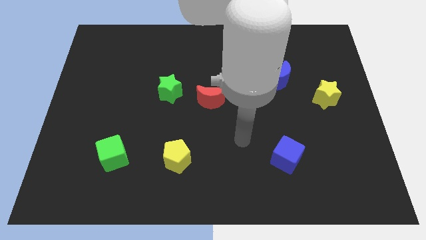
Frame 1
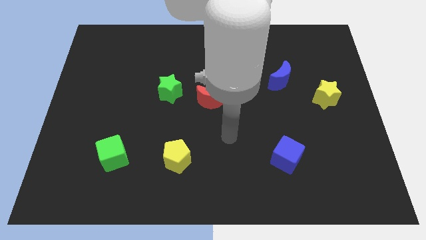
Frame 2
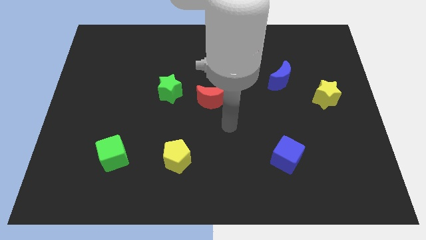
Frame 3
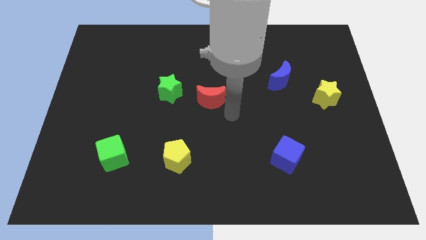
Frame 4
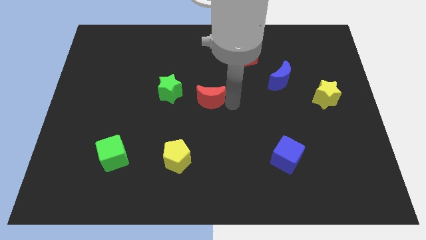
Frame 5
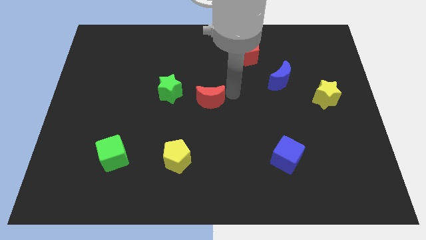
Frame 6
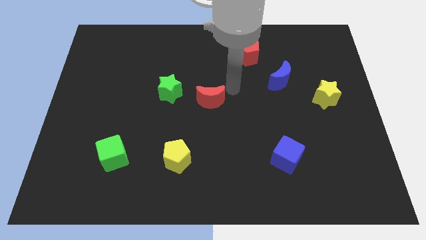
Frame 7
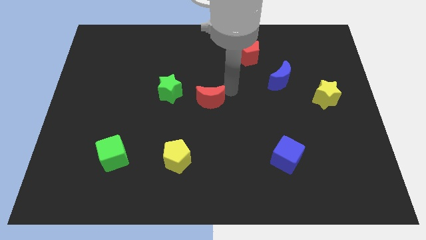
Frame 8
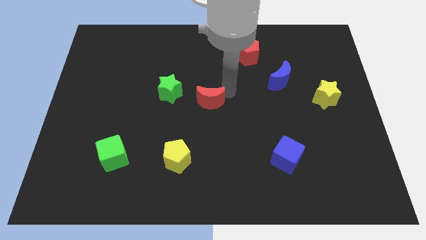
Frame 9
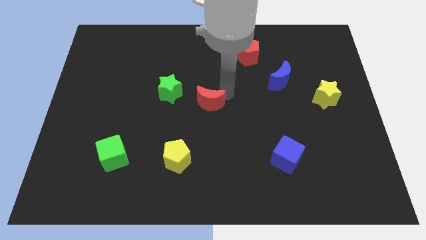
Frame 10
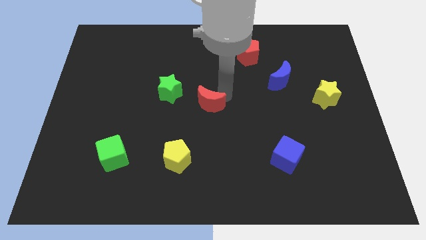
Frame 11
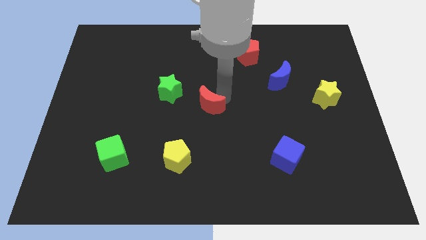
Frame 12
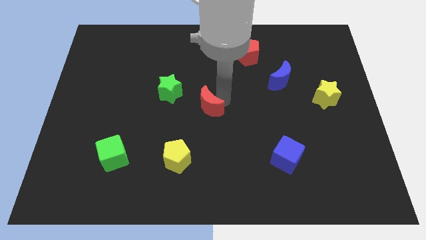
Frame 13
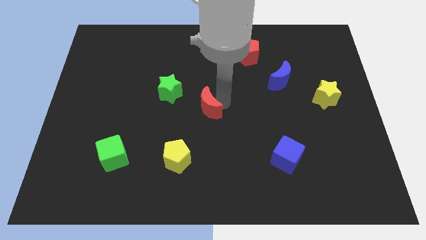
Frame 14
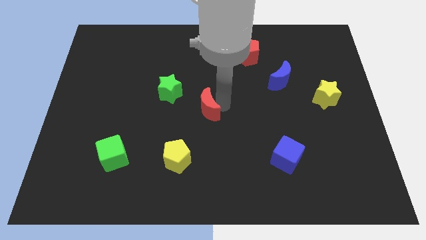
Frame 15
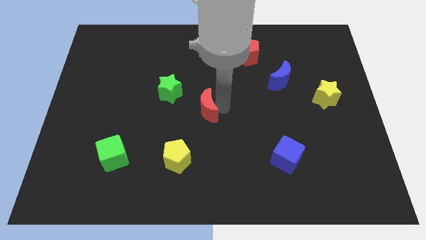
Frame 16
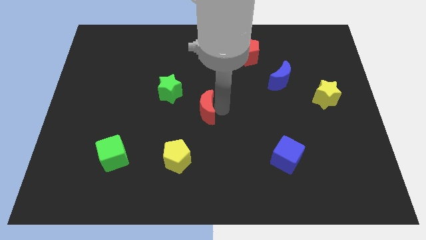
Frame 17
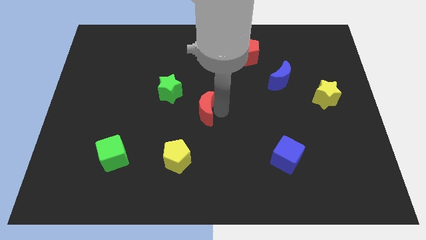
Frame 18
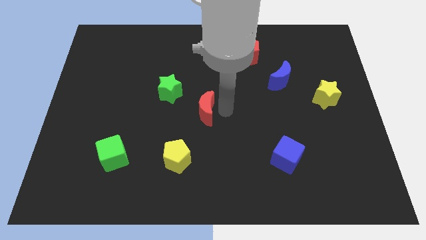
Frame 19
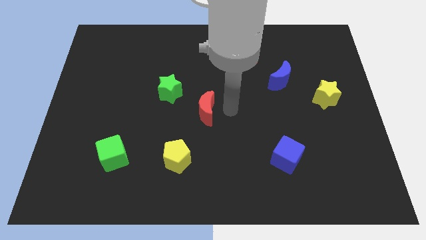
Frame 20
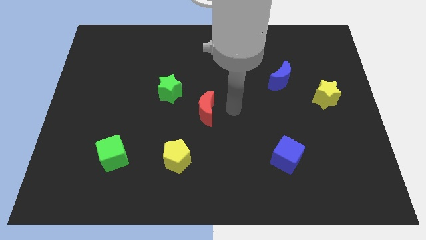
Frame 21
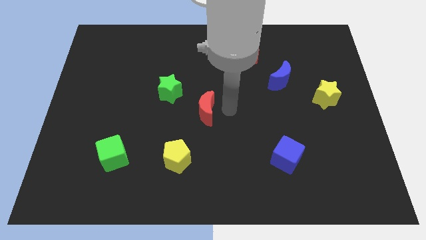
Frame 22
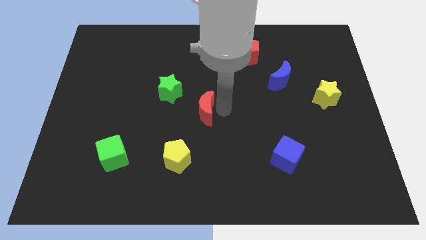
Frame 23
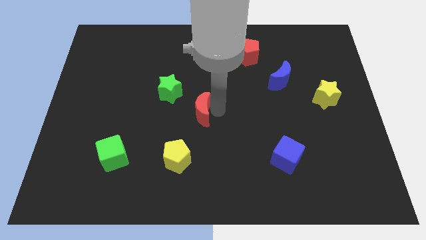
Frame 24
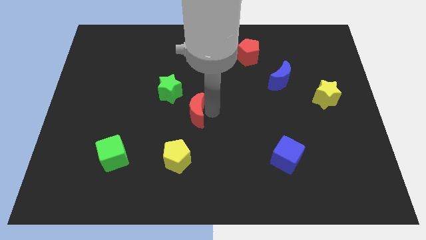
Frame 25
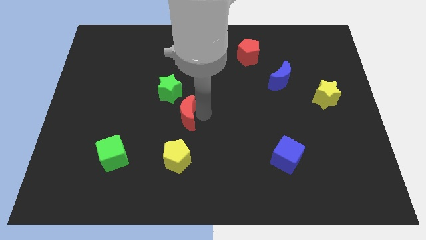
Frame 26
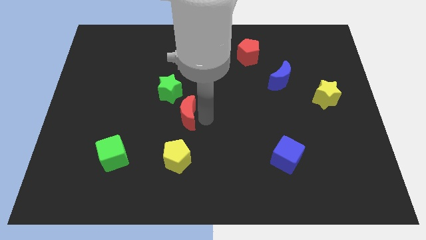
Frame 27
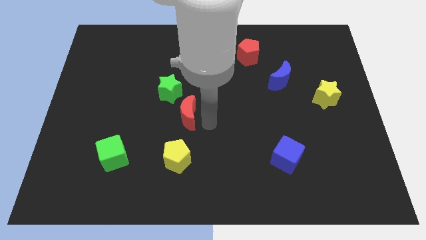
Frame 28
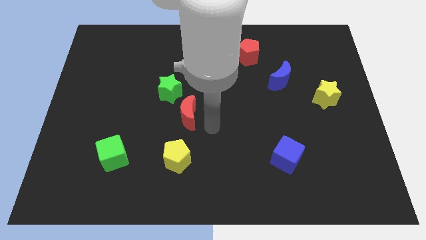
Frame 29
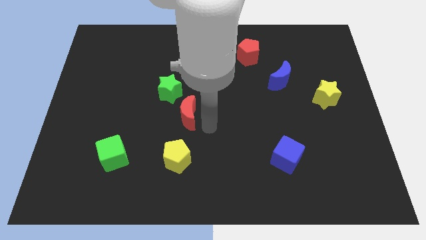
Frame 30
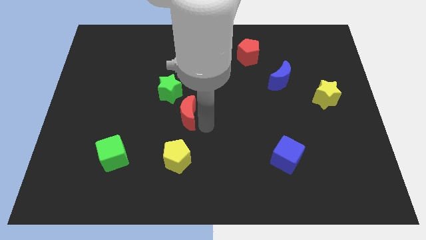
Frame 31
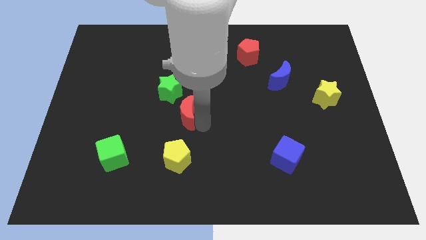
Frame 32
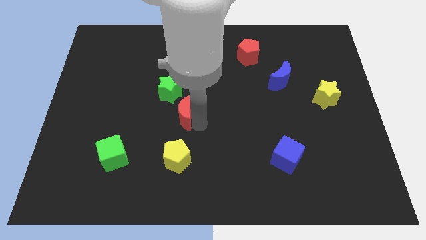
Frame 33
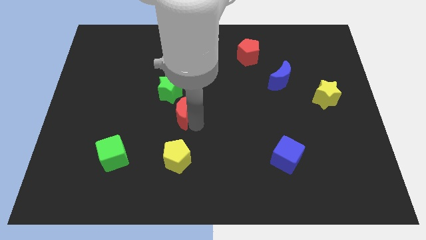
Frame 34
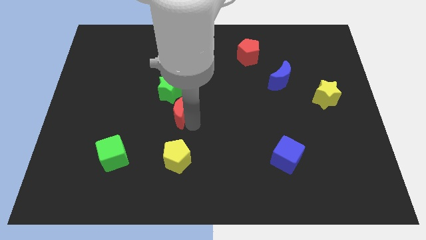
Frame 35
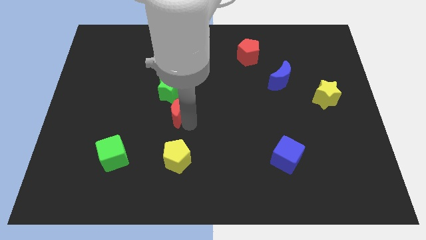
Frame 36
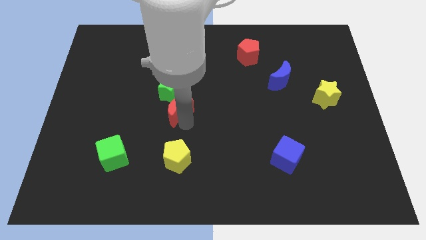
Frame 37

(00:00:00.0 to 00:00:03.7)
slightly move the red moon left

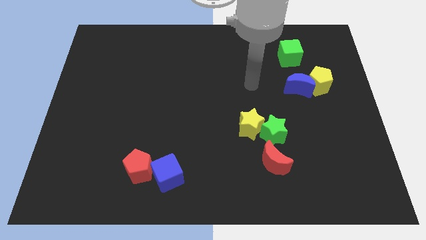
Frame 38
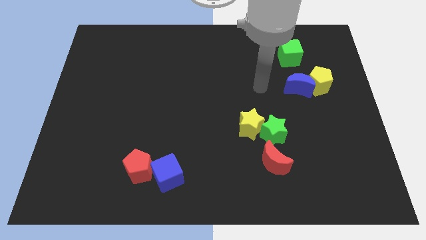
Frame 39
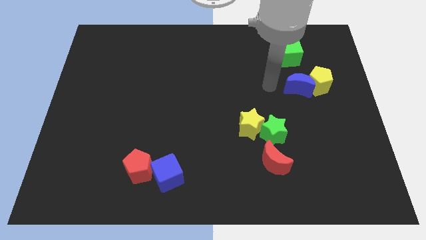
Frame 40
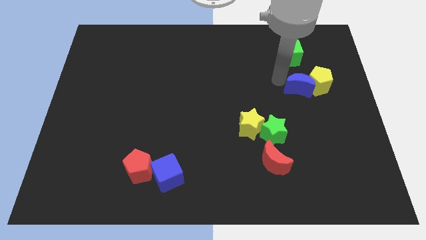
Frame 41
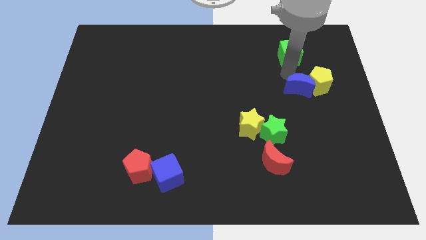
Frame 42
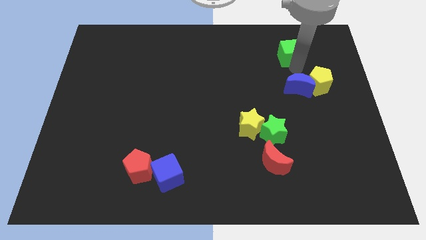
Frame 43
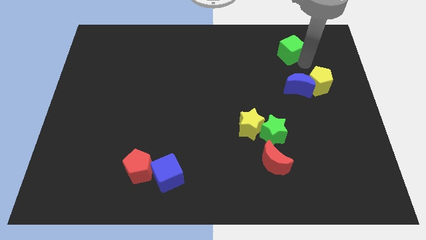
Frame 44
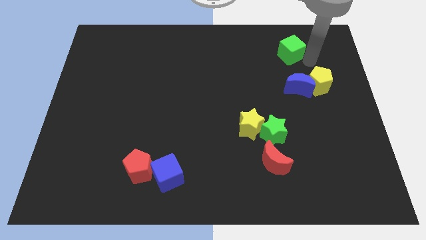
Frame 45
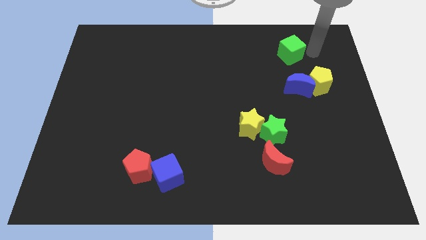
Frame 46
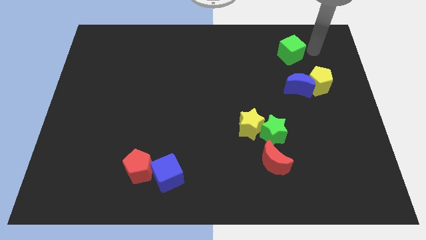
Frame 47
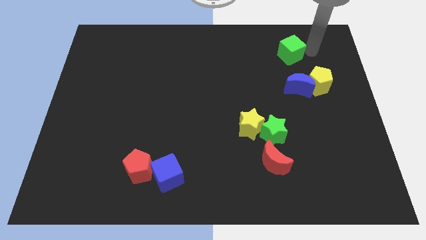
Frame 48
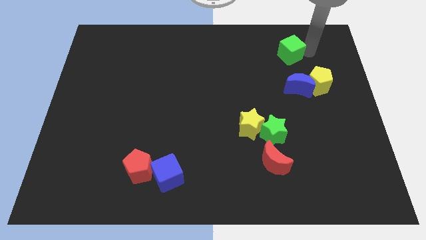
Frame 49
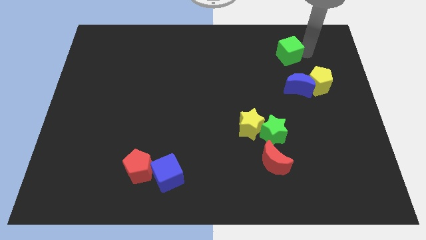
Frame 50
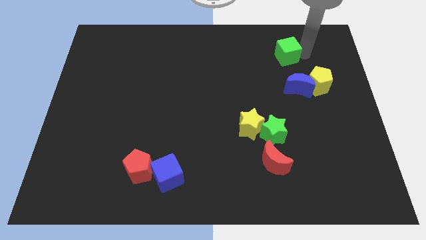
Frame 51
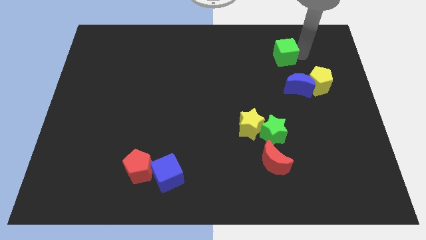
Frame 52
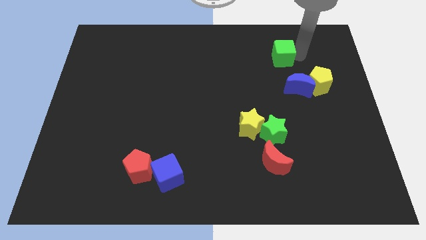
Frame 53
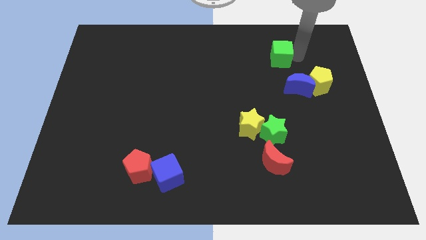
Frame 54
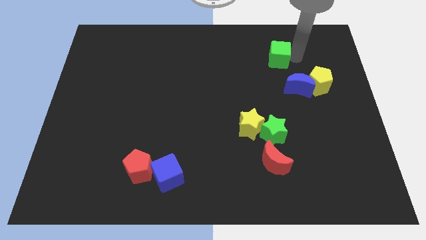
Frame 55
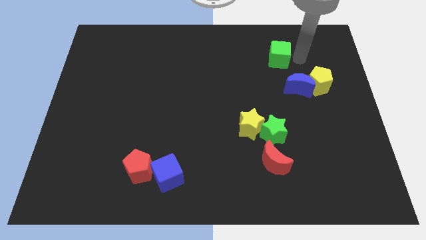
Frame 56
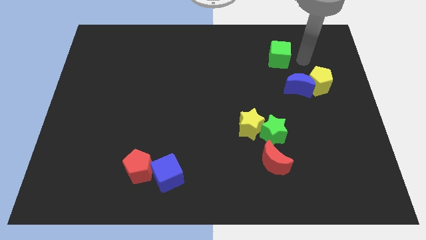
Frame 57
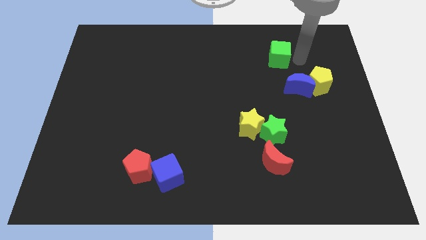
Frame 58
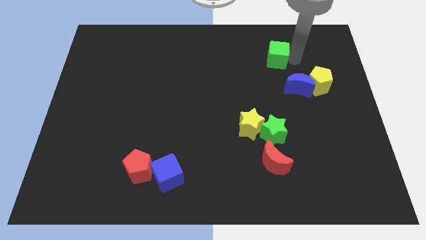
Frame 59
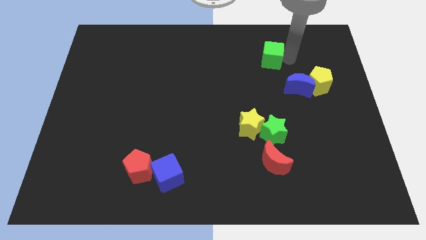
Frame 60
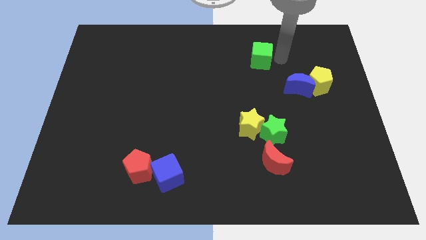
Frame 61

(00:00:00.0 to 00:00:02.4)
slightly move the green cube to the left

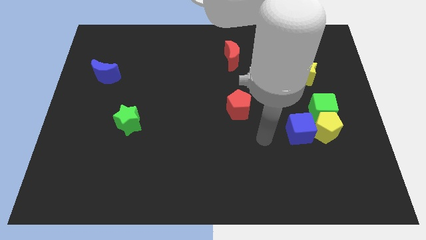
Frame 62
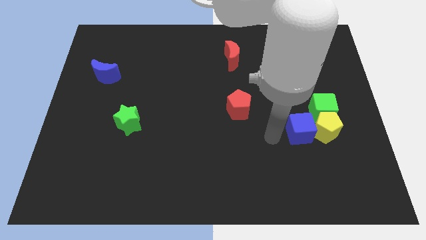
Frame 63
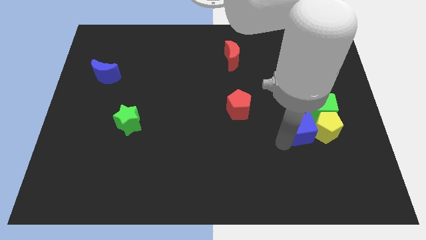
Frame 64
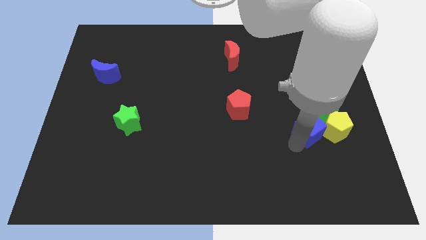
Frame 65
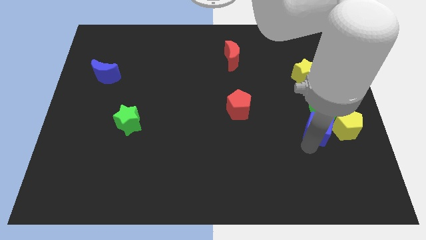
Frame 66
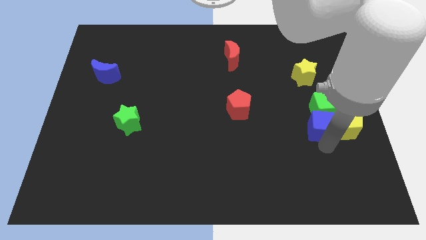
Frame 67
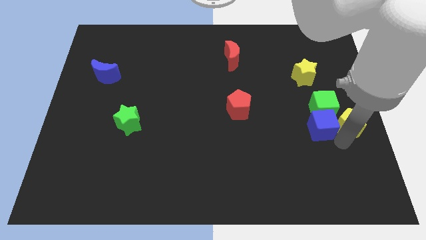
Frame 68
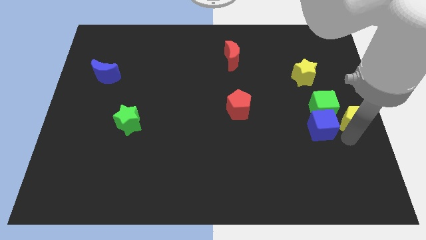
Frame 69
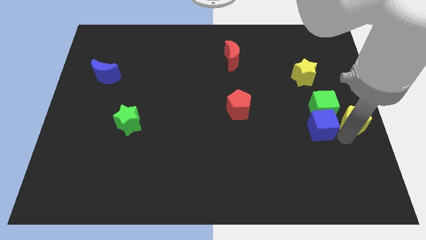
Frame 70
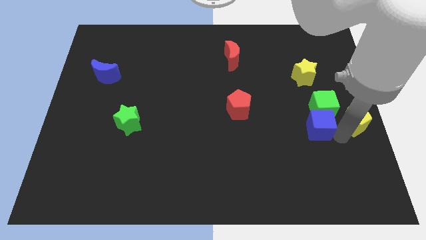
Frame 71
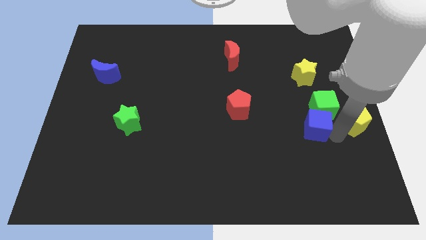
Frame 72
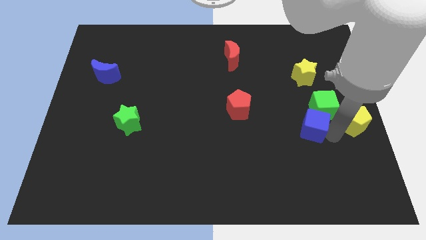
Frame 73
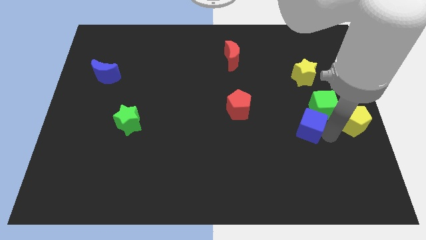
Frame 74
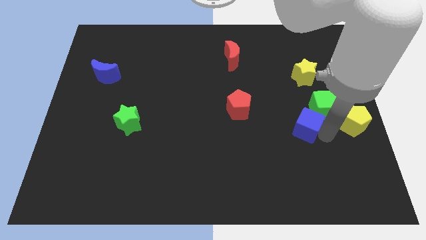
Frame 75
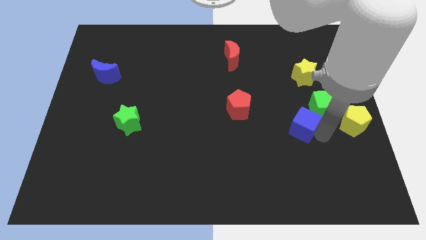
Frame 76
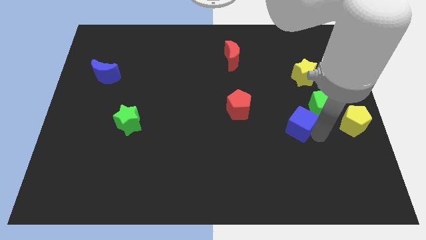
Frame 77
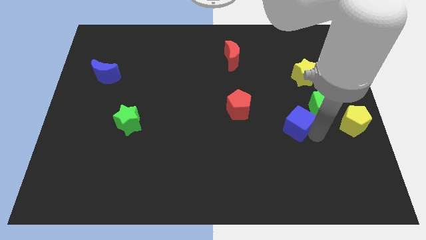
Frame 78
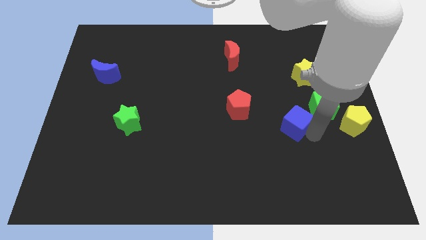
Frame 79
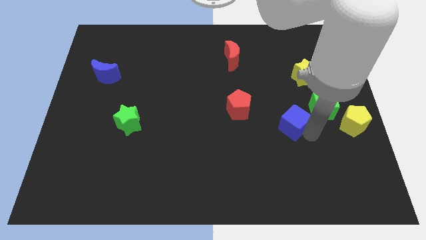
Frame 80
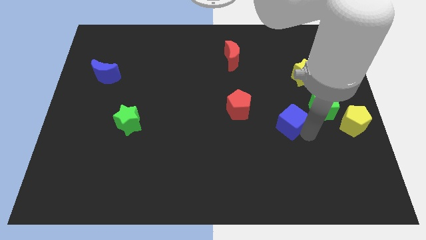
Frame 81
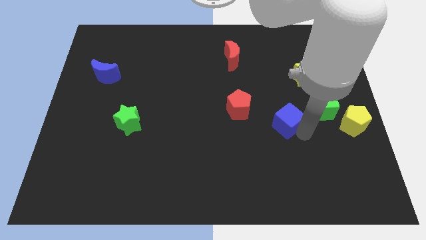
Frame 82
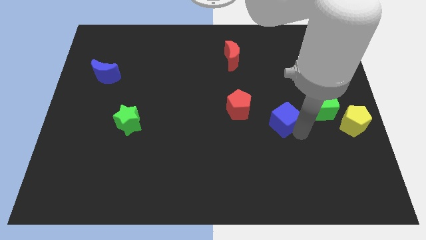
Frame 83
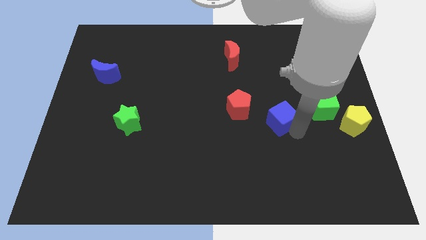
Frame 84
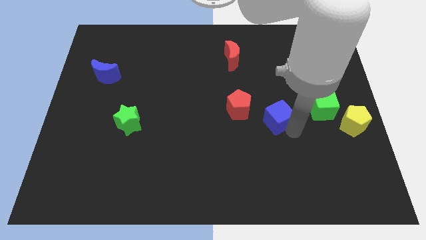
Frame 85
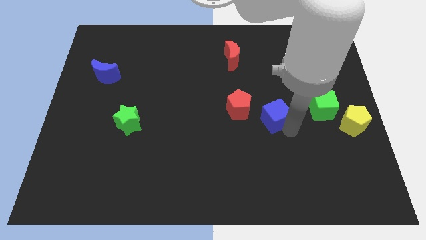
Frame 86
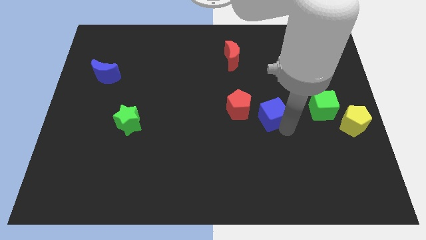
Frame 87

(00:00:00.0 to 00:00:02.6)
move the blue cube up and to the left somewhat
